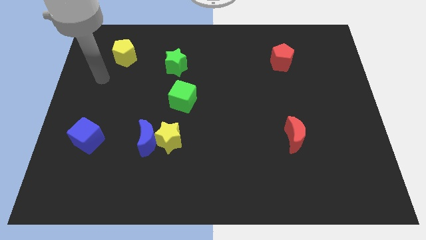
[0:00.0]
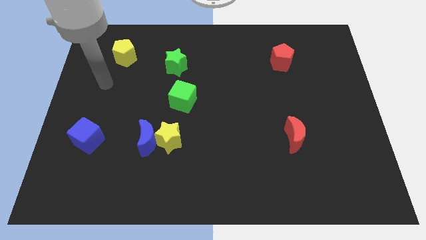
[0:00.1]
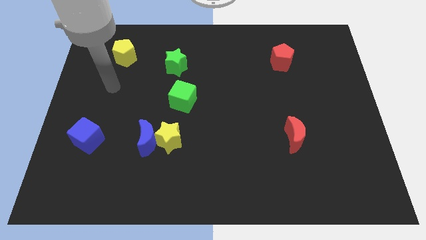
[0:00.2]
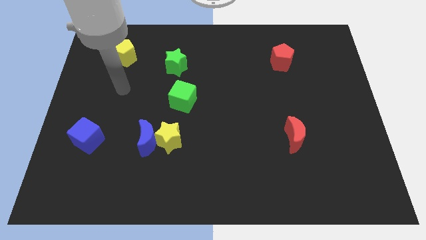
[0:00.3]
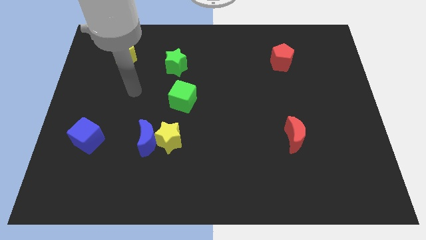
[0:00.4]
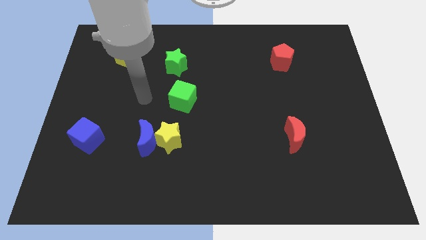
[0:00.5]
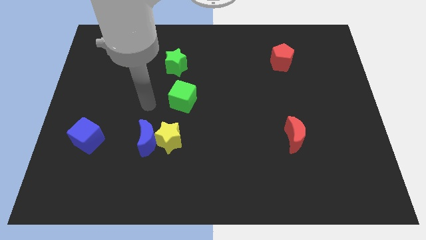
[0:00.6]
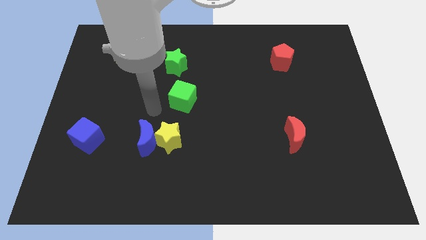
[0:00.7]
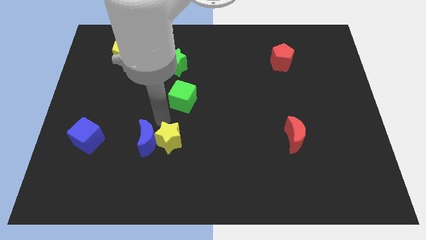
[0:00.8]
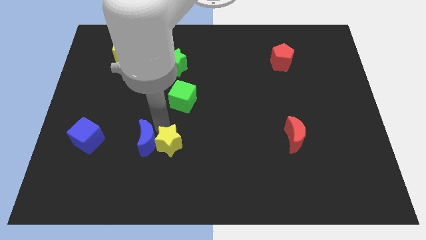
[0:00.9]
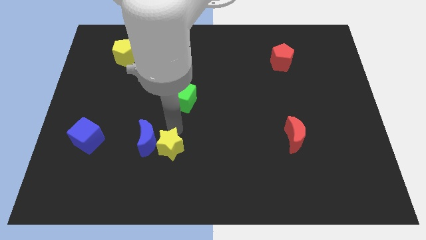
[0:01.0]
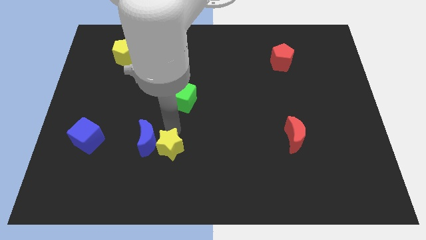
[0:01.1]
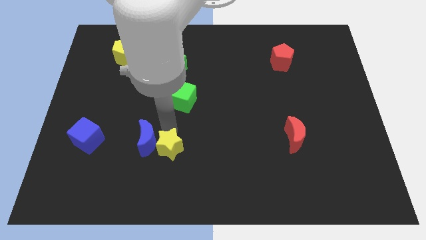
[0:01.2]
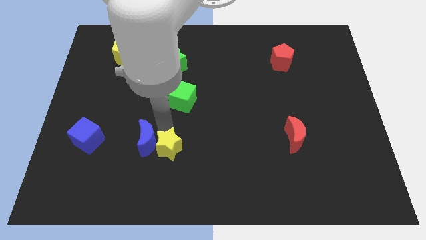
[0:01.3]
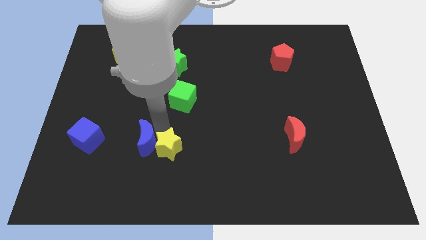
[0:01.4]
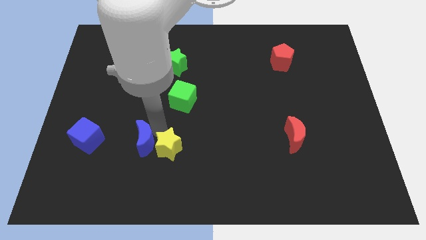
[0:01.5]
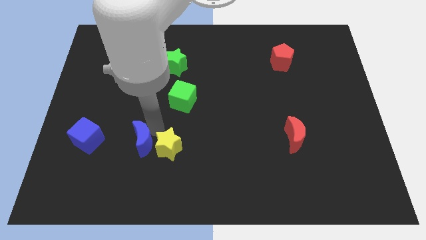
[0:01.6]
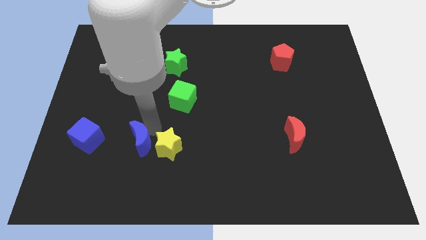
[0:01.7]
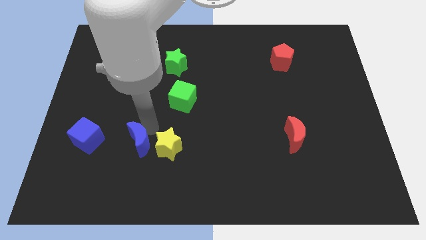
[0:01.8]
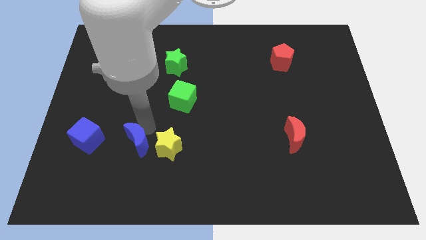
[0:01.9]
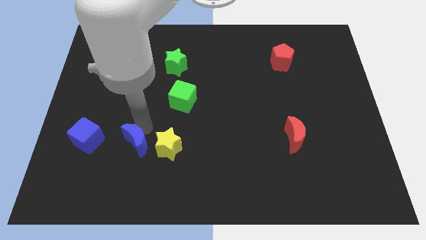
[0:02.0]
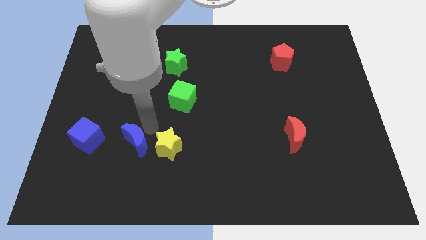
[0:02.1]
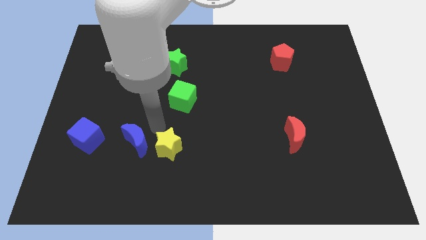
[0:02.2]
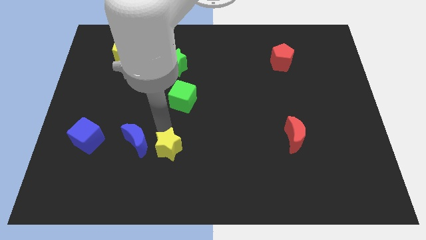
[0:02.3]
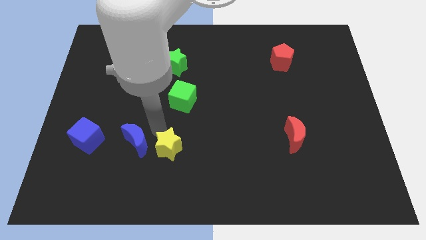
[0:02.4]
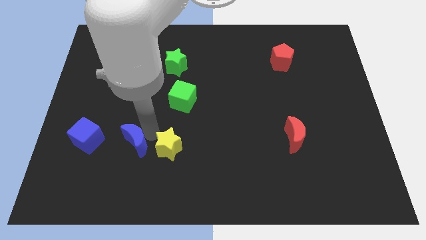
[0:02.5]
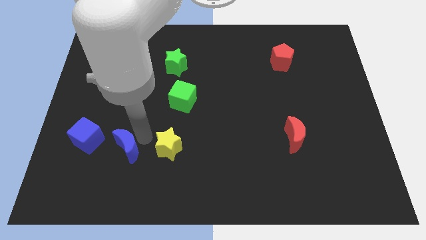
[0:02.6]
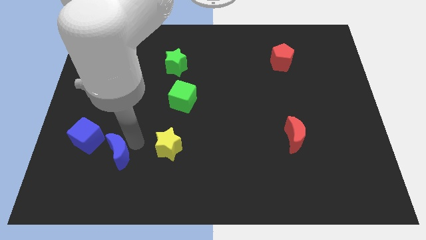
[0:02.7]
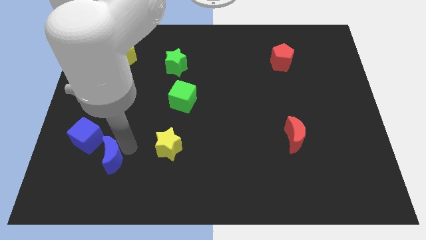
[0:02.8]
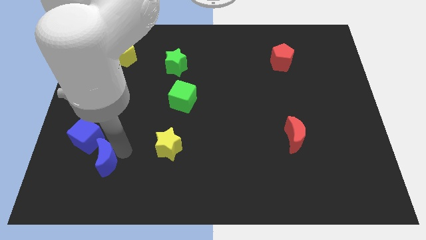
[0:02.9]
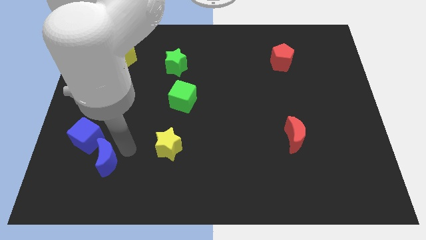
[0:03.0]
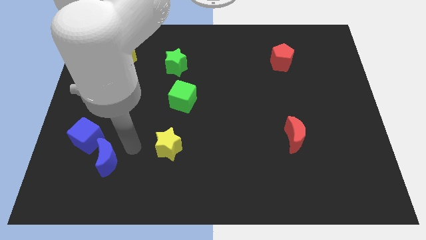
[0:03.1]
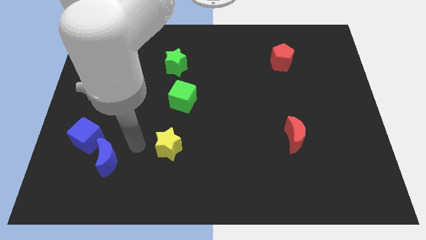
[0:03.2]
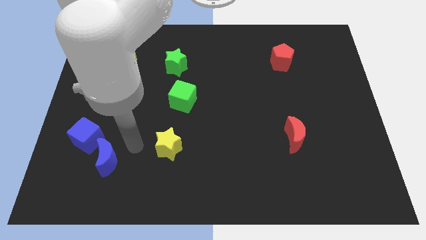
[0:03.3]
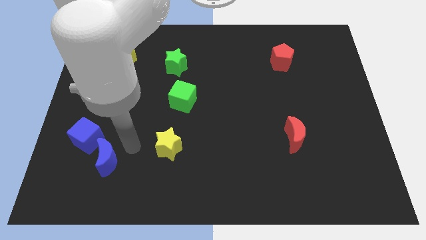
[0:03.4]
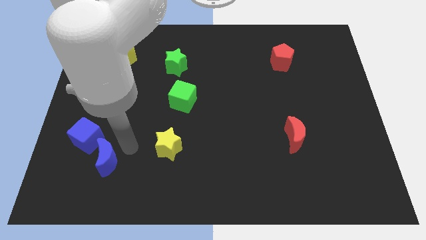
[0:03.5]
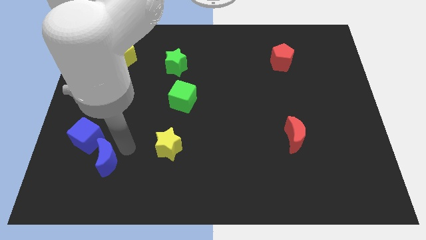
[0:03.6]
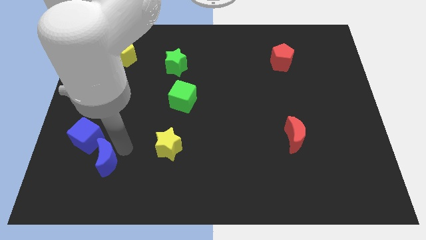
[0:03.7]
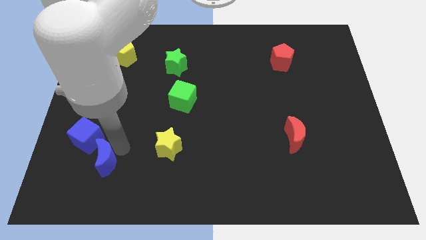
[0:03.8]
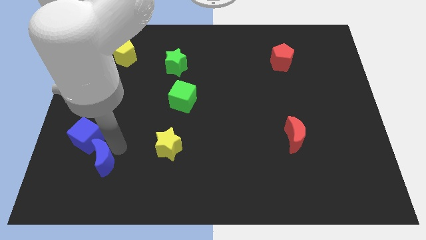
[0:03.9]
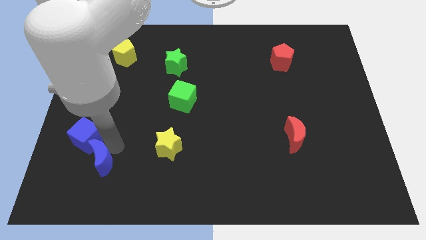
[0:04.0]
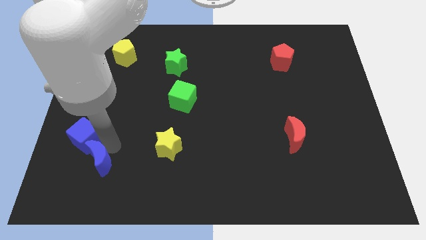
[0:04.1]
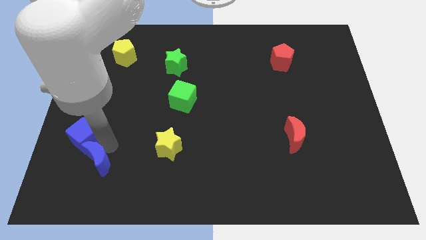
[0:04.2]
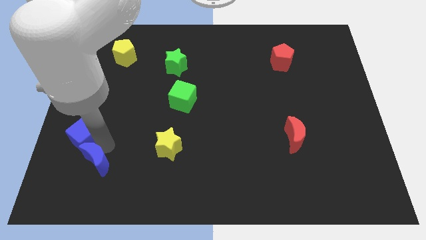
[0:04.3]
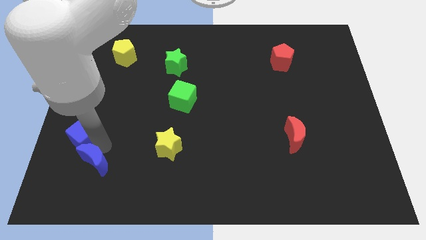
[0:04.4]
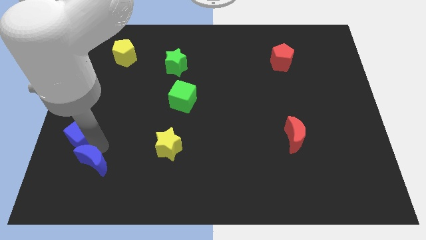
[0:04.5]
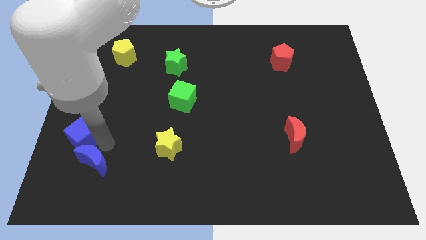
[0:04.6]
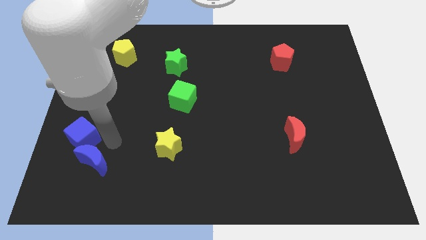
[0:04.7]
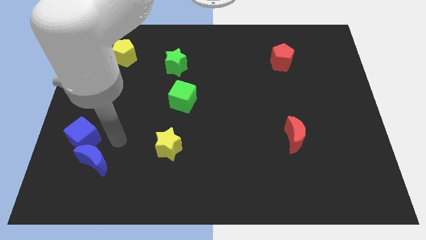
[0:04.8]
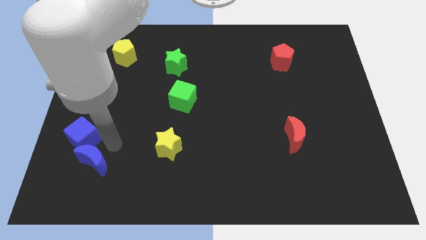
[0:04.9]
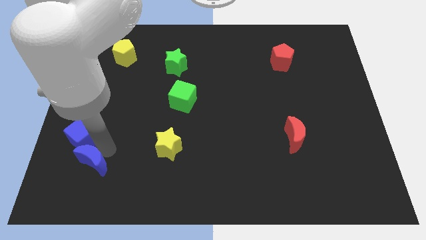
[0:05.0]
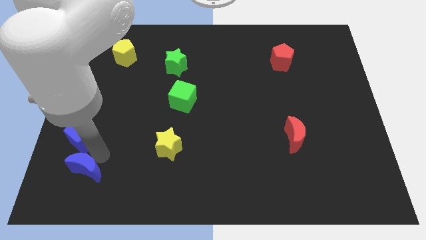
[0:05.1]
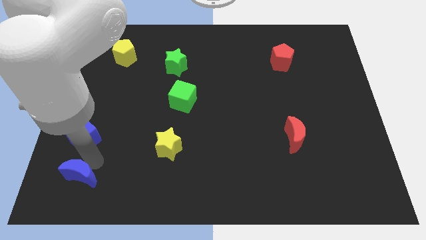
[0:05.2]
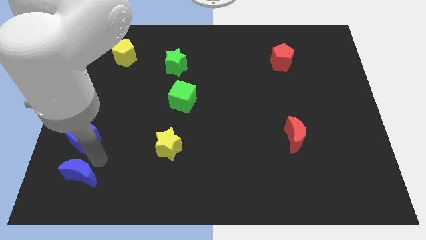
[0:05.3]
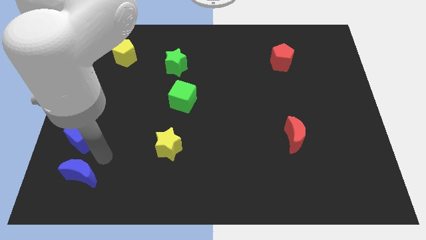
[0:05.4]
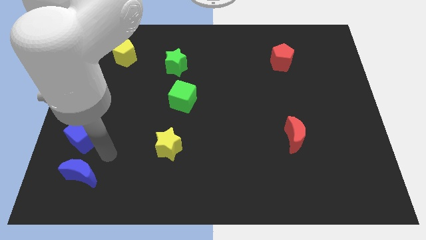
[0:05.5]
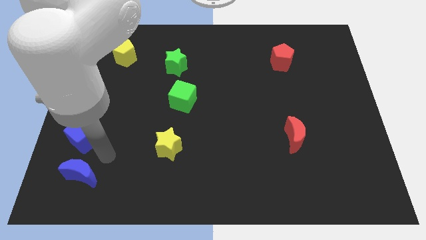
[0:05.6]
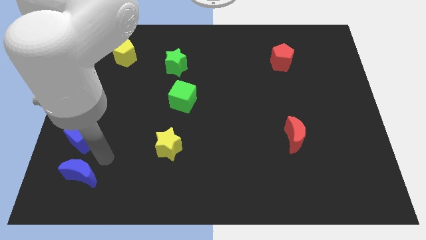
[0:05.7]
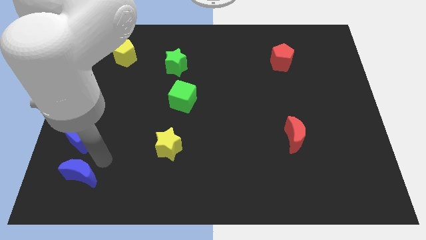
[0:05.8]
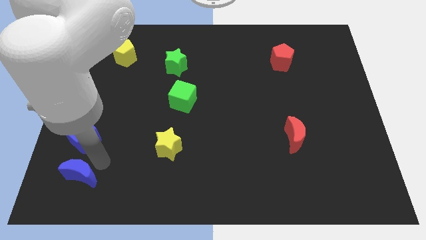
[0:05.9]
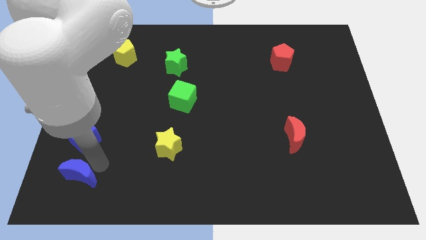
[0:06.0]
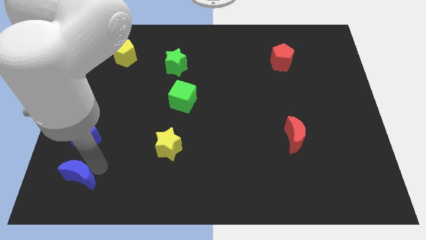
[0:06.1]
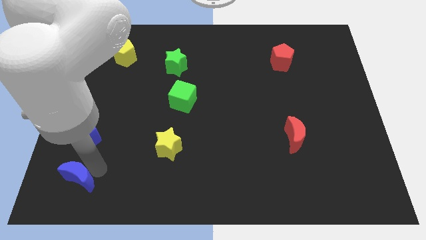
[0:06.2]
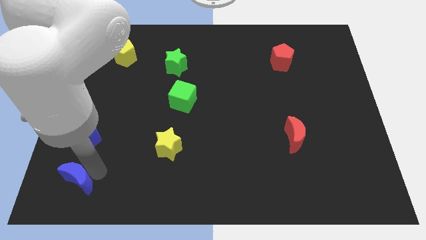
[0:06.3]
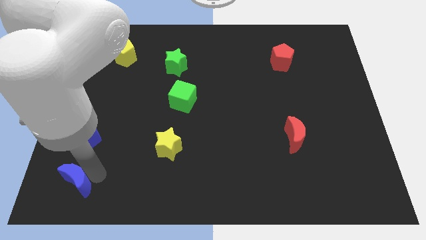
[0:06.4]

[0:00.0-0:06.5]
put the blue moon to the lower left corner

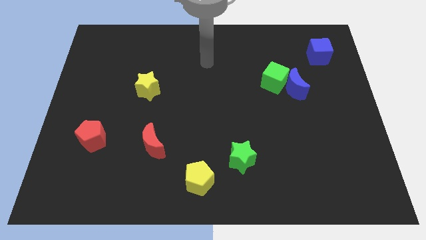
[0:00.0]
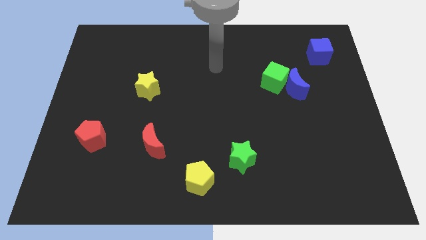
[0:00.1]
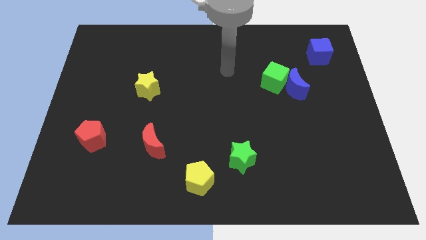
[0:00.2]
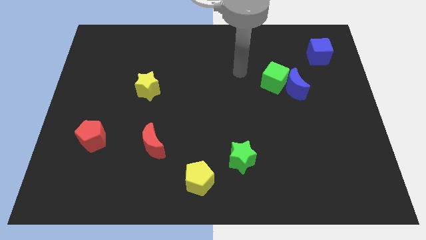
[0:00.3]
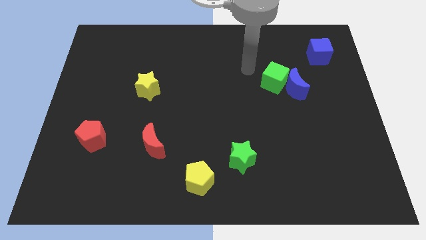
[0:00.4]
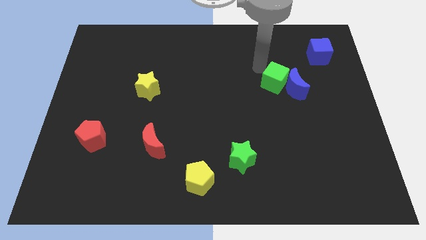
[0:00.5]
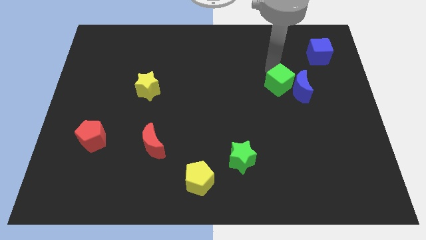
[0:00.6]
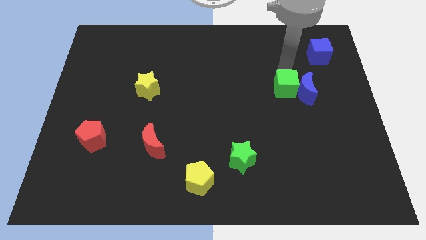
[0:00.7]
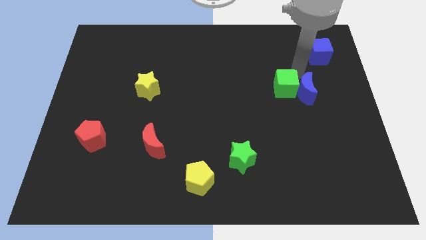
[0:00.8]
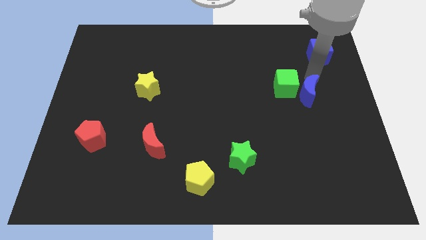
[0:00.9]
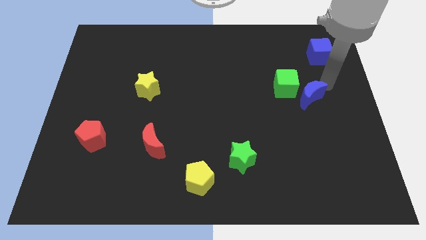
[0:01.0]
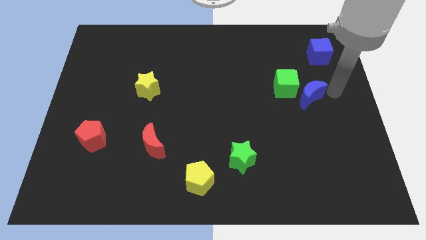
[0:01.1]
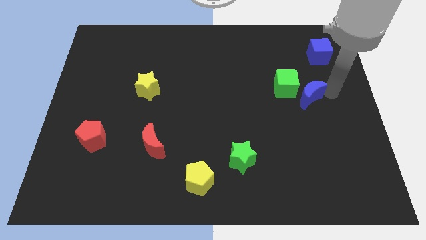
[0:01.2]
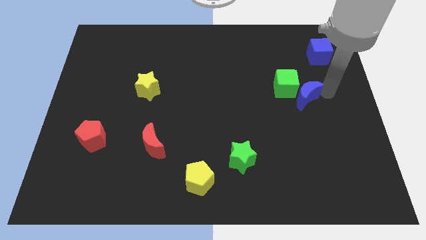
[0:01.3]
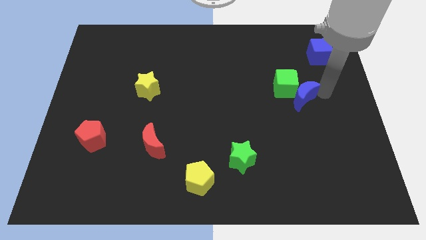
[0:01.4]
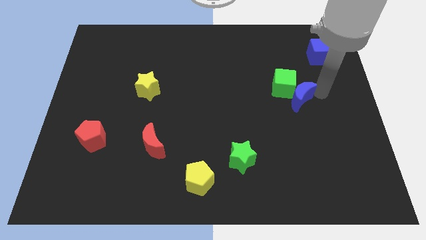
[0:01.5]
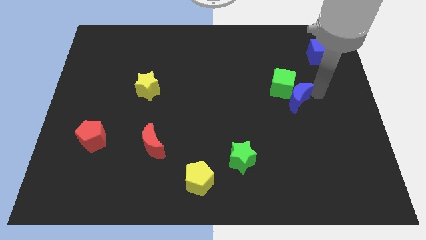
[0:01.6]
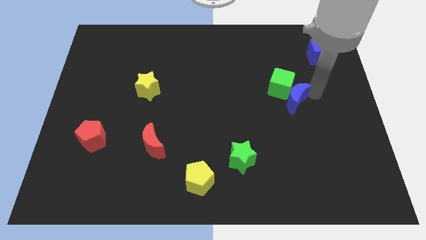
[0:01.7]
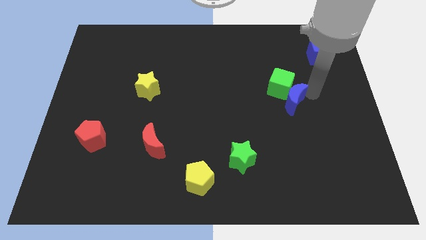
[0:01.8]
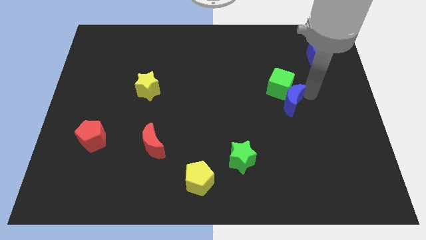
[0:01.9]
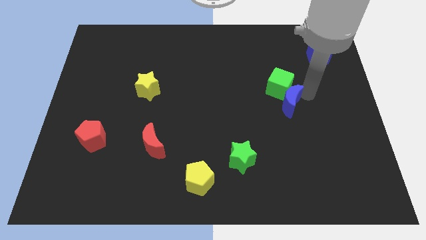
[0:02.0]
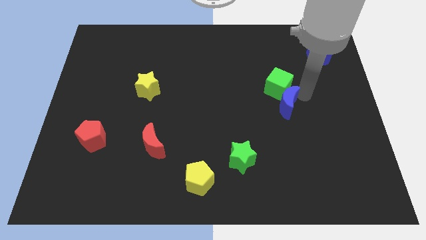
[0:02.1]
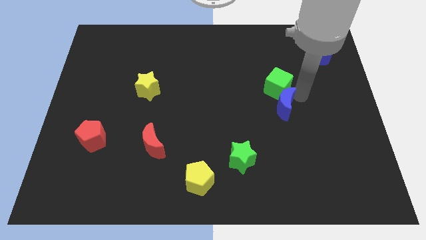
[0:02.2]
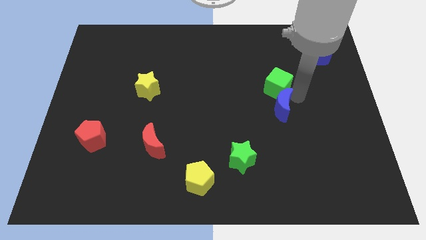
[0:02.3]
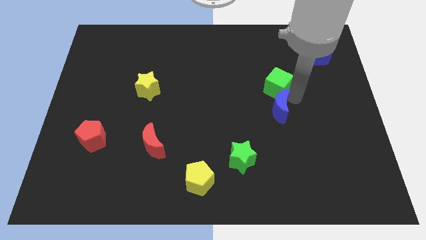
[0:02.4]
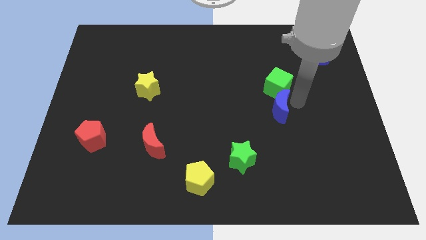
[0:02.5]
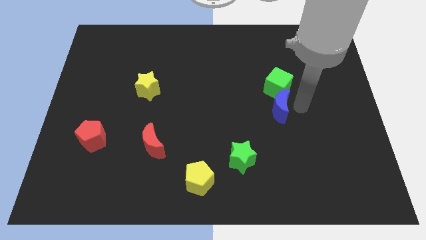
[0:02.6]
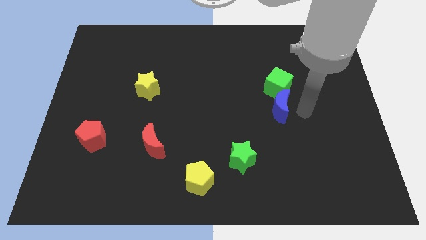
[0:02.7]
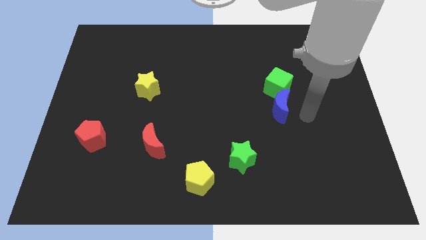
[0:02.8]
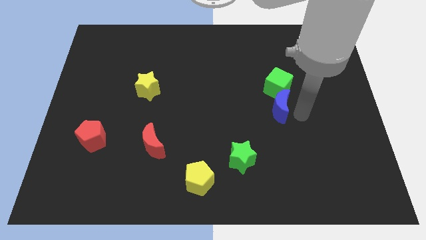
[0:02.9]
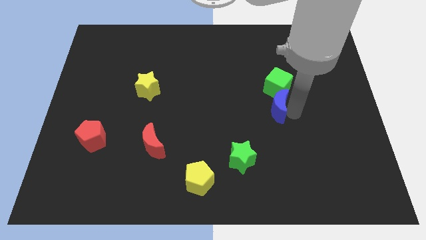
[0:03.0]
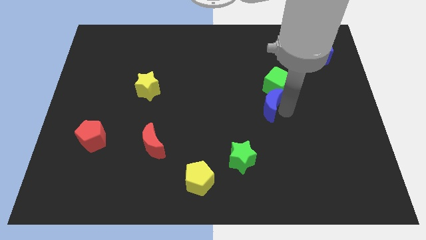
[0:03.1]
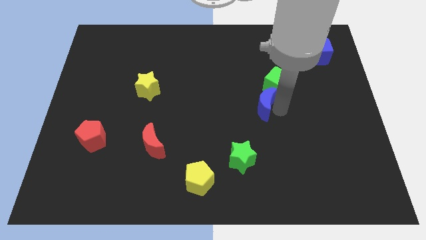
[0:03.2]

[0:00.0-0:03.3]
move the blue moon to the middle
